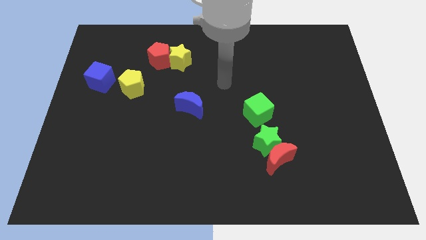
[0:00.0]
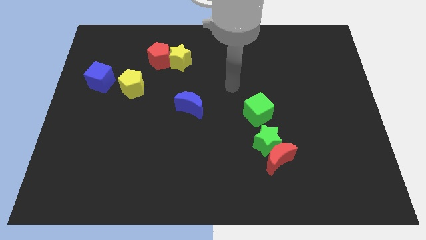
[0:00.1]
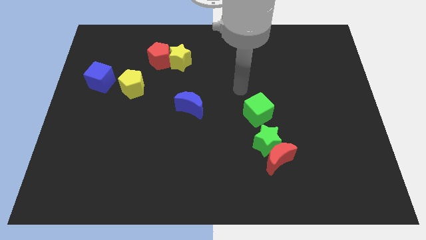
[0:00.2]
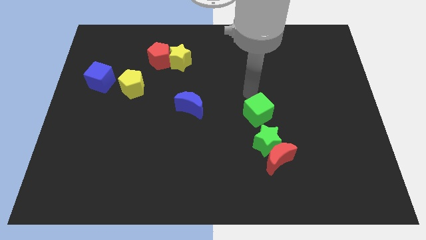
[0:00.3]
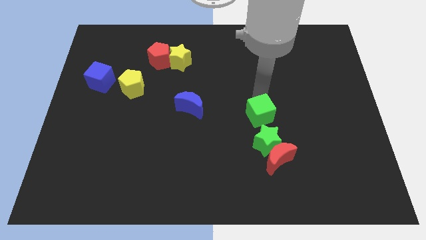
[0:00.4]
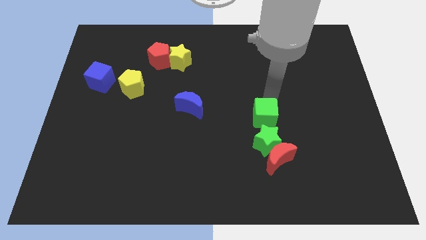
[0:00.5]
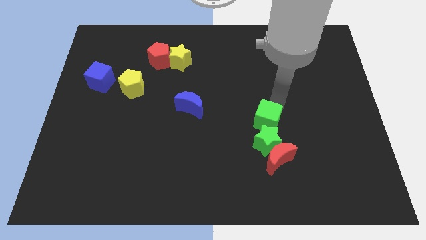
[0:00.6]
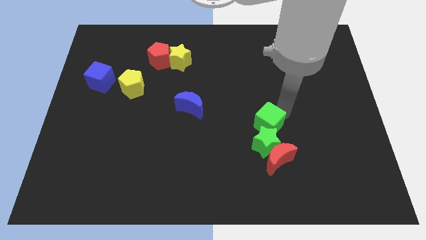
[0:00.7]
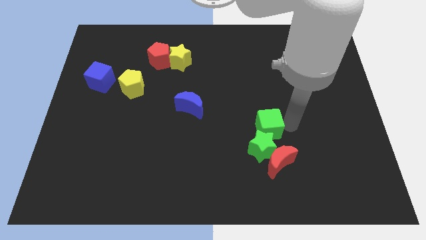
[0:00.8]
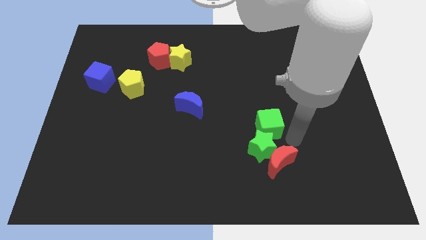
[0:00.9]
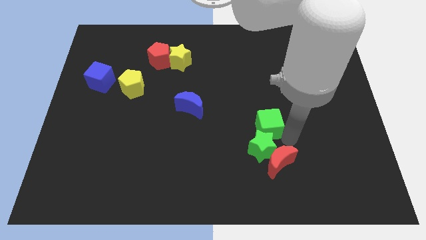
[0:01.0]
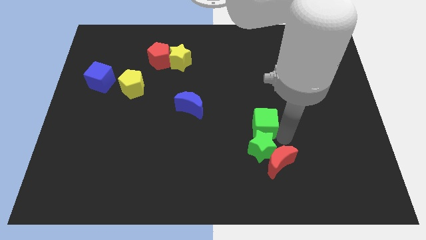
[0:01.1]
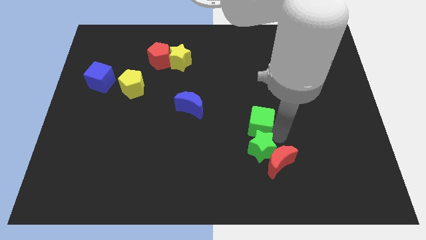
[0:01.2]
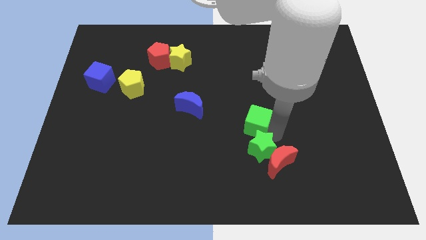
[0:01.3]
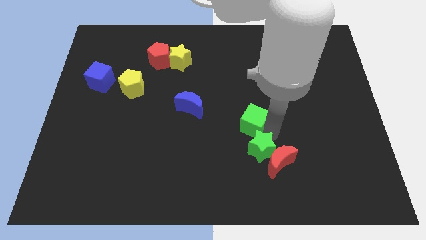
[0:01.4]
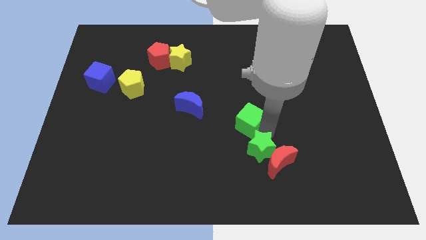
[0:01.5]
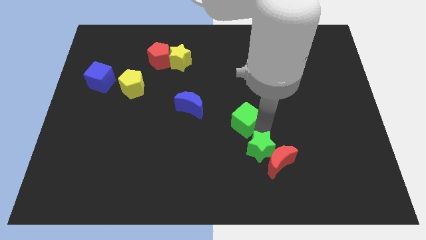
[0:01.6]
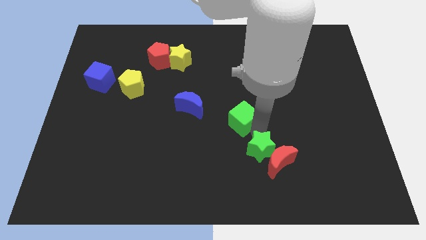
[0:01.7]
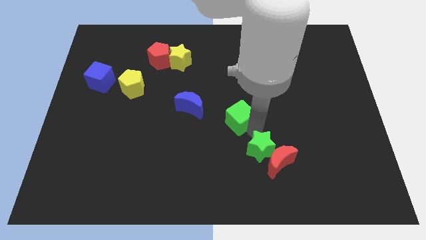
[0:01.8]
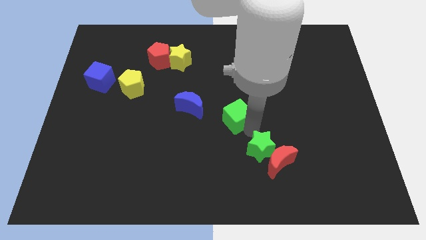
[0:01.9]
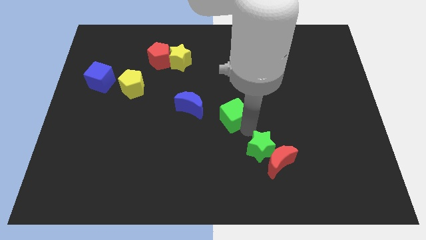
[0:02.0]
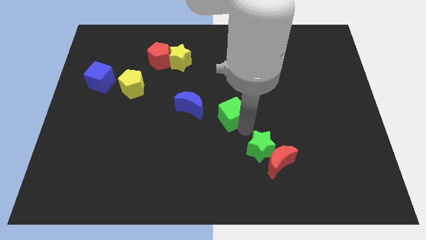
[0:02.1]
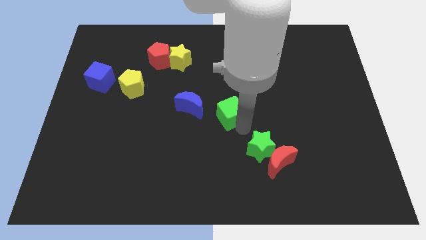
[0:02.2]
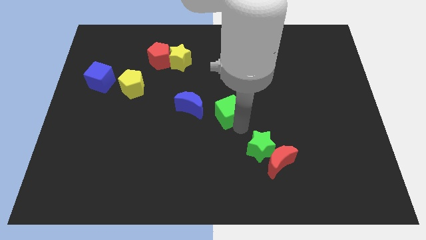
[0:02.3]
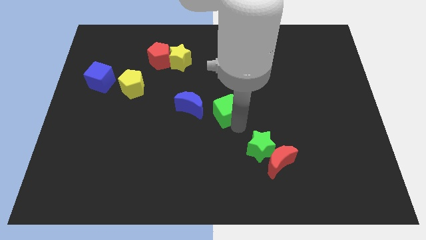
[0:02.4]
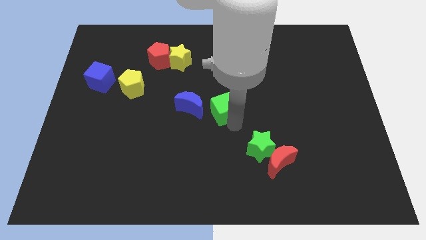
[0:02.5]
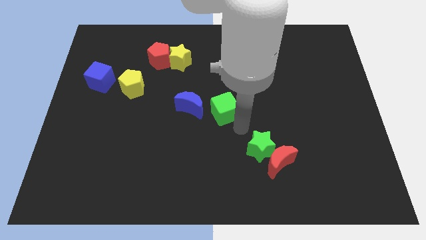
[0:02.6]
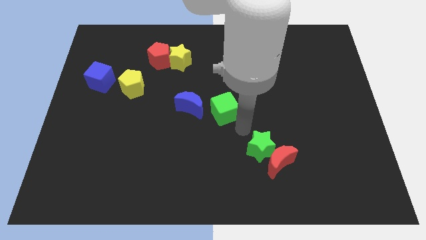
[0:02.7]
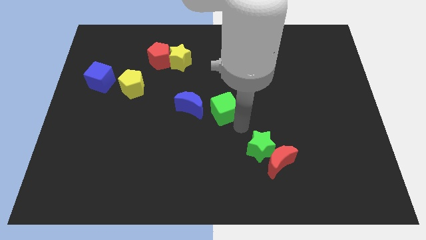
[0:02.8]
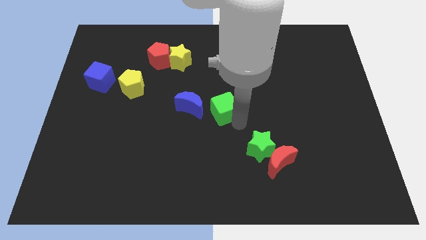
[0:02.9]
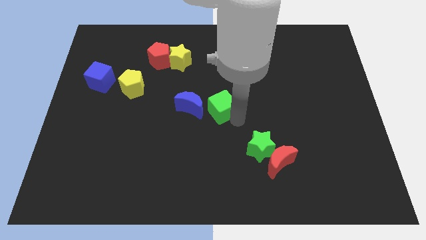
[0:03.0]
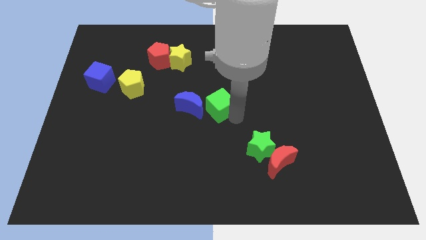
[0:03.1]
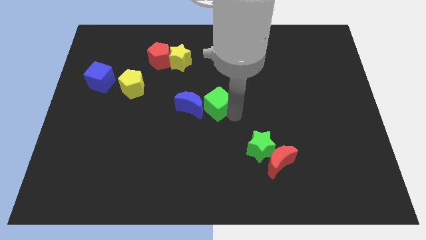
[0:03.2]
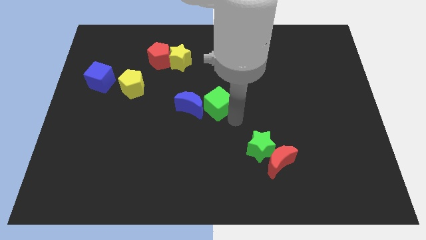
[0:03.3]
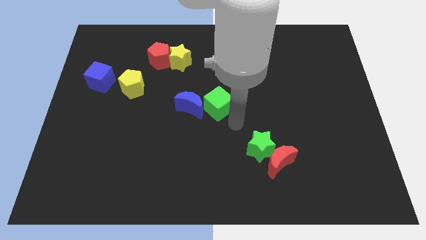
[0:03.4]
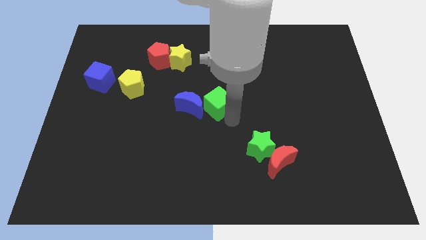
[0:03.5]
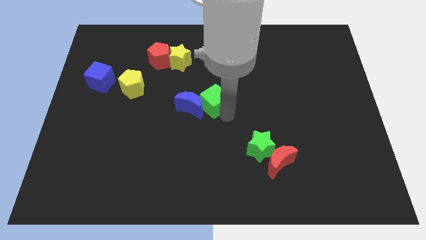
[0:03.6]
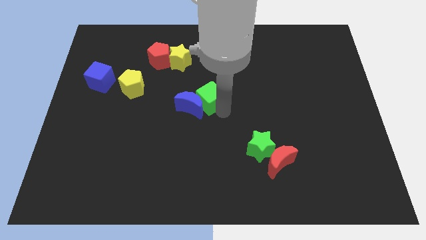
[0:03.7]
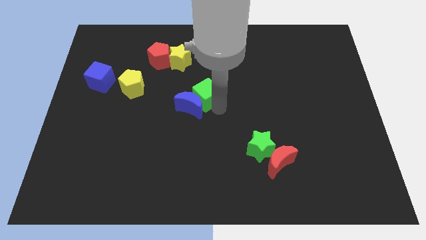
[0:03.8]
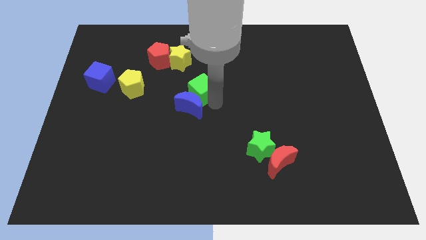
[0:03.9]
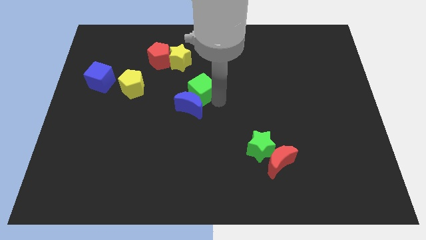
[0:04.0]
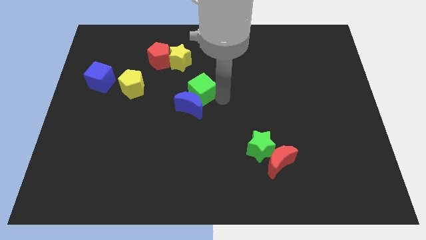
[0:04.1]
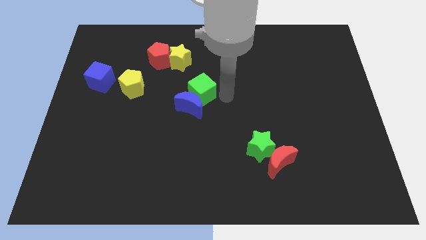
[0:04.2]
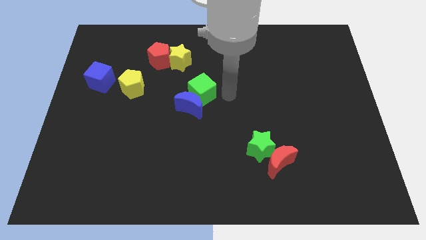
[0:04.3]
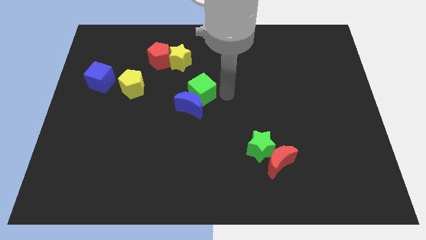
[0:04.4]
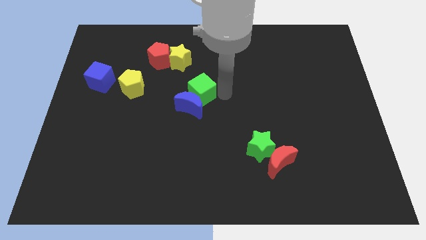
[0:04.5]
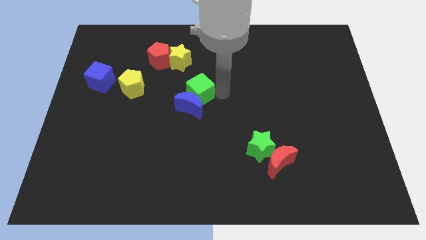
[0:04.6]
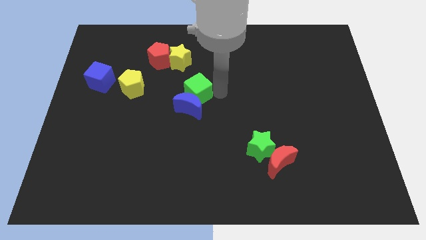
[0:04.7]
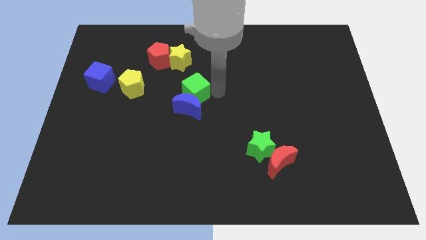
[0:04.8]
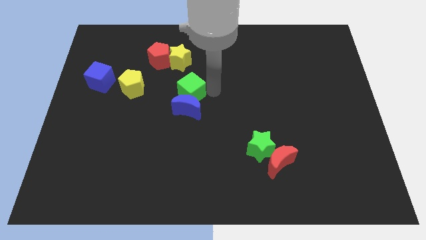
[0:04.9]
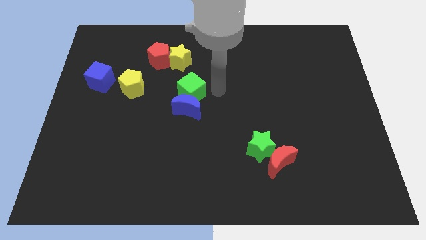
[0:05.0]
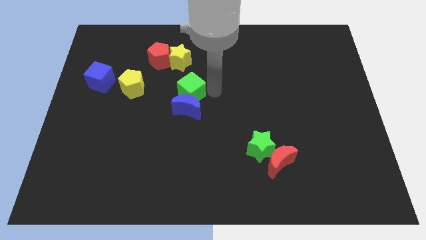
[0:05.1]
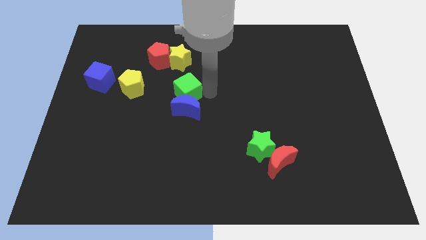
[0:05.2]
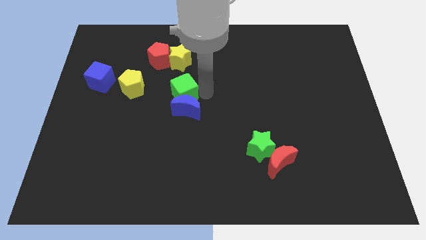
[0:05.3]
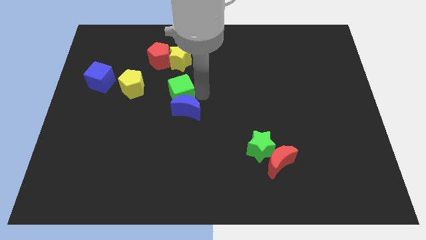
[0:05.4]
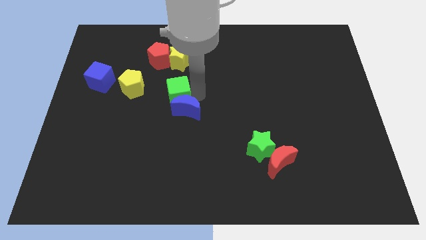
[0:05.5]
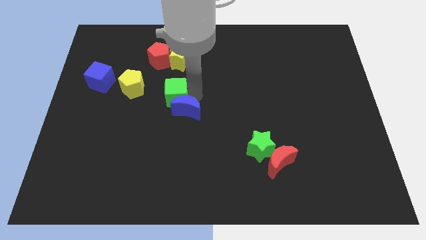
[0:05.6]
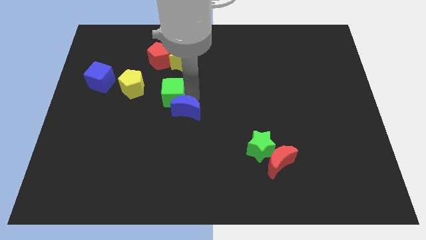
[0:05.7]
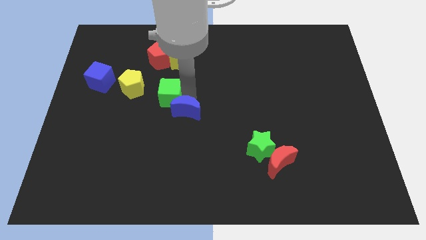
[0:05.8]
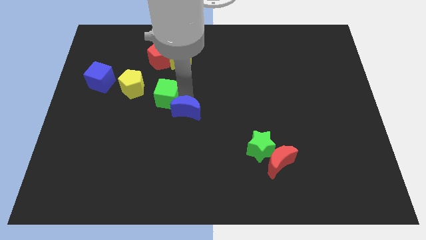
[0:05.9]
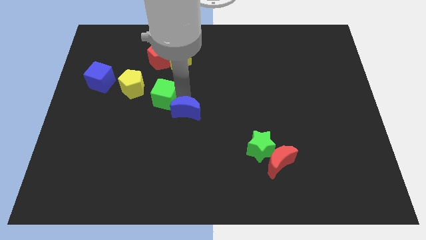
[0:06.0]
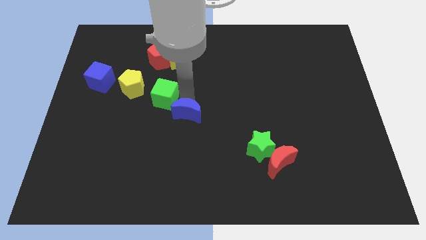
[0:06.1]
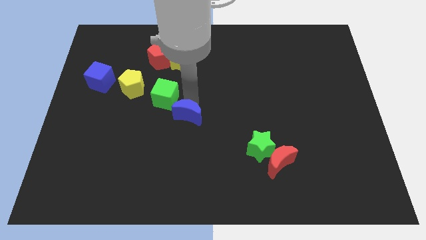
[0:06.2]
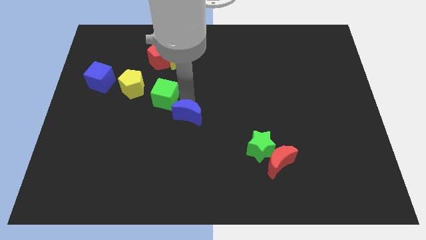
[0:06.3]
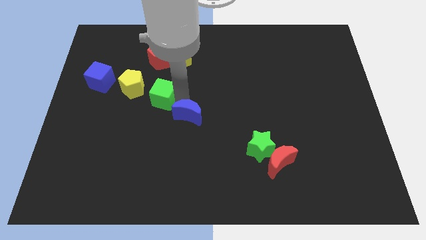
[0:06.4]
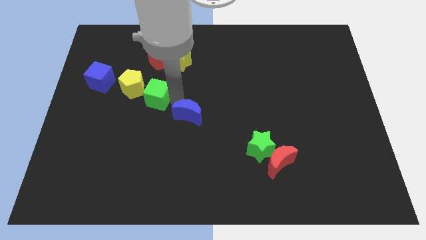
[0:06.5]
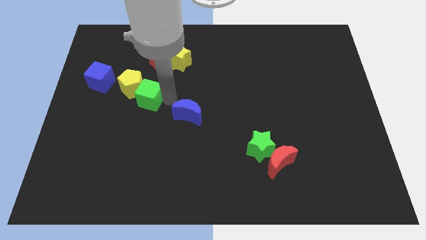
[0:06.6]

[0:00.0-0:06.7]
move the green cube next to the yellow pentagon

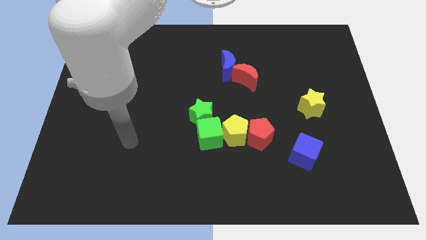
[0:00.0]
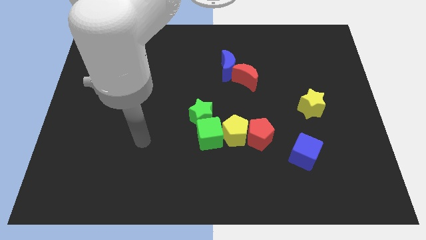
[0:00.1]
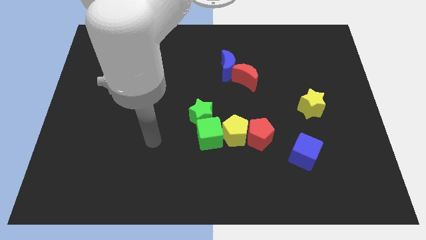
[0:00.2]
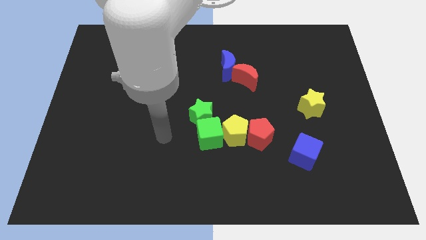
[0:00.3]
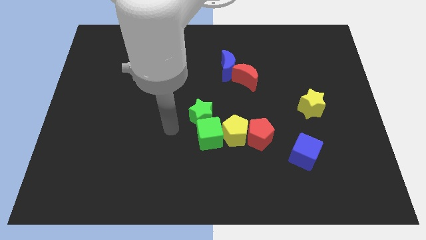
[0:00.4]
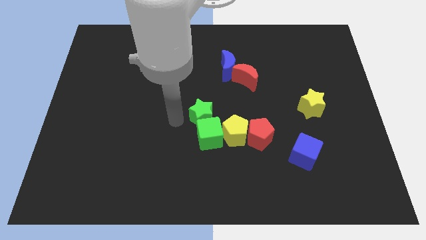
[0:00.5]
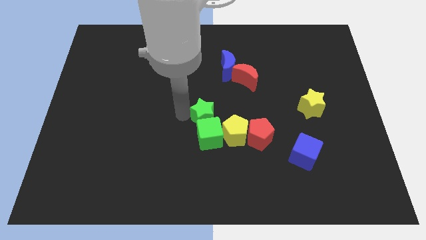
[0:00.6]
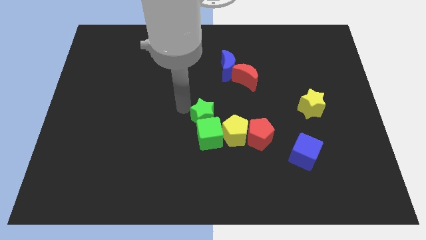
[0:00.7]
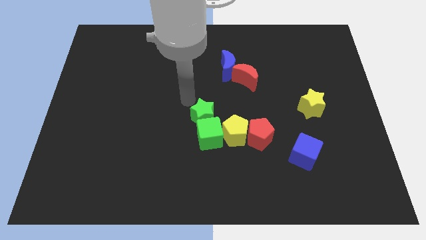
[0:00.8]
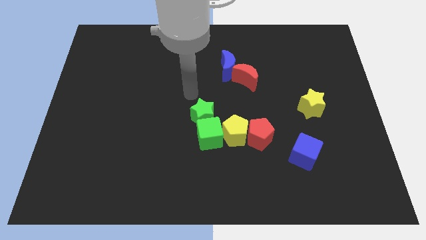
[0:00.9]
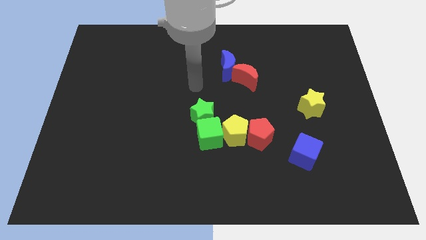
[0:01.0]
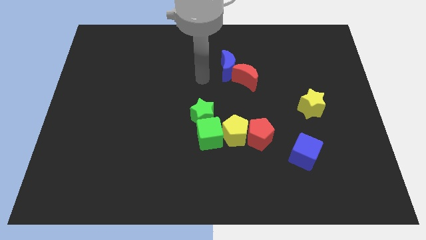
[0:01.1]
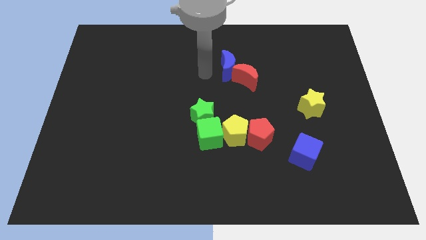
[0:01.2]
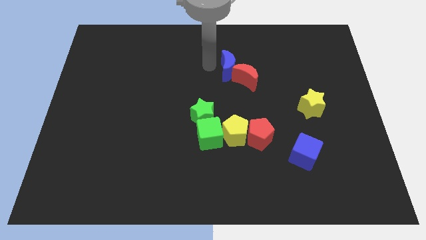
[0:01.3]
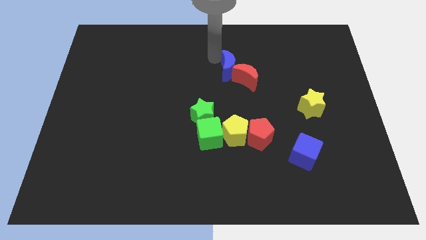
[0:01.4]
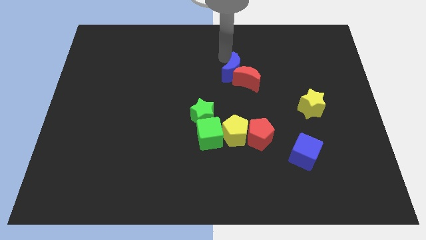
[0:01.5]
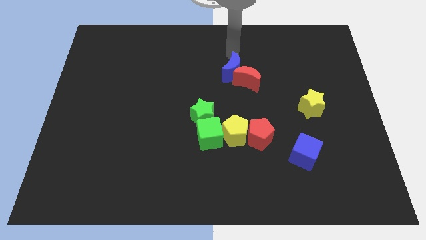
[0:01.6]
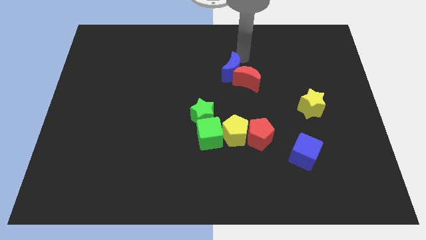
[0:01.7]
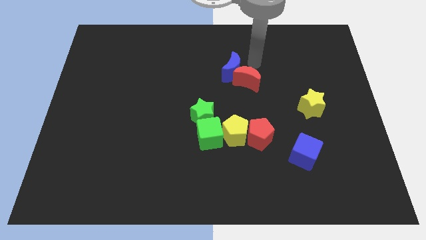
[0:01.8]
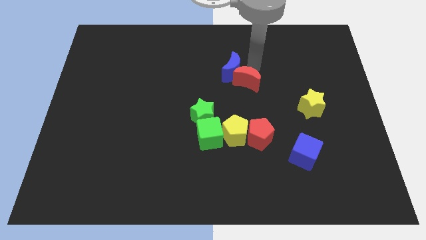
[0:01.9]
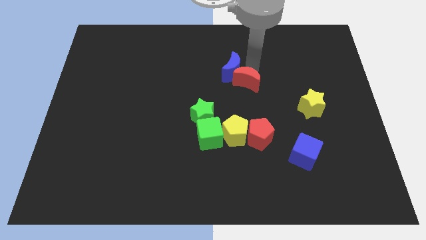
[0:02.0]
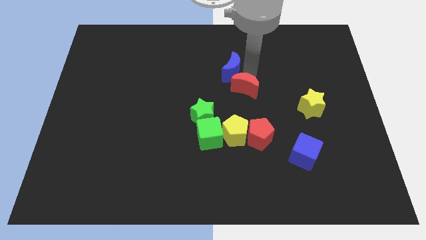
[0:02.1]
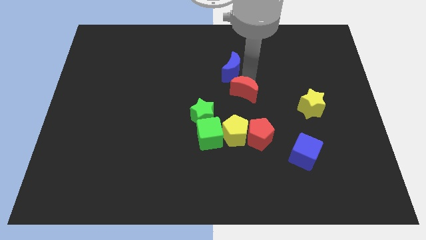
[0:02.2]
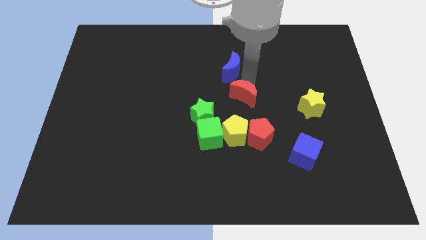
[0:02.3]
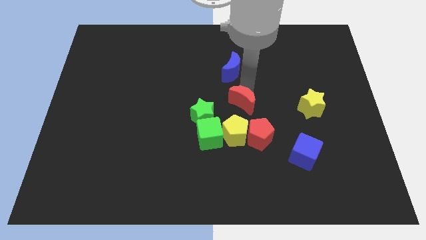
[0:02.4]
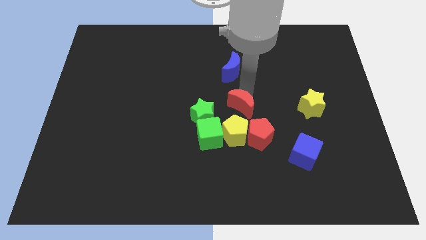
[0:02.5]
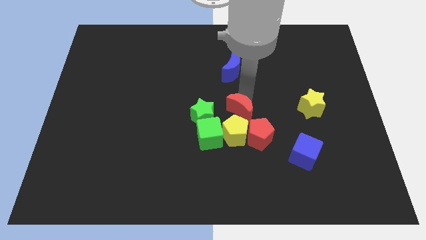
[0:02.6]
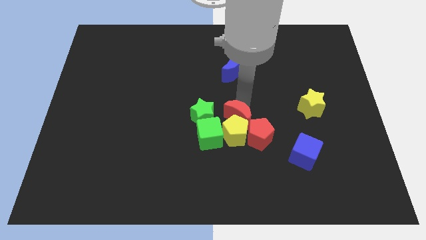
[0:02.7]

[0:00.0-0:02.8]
move the red moon to the yellow pentagon
